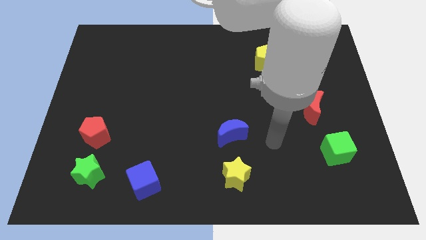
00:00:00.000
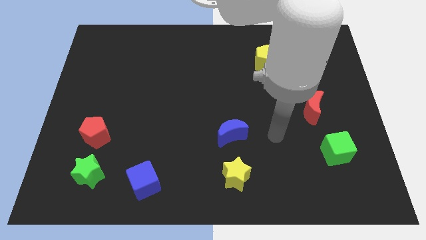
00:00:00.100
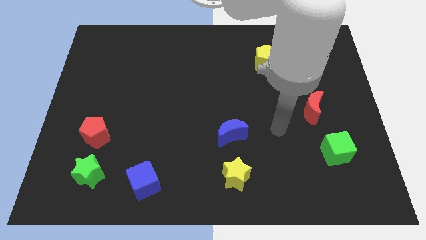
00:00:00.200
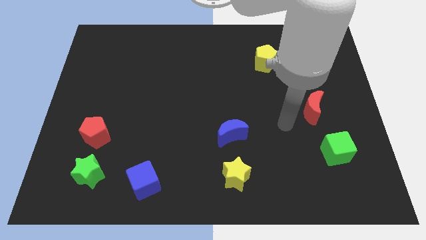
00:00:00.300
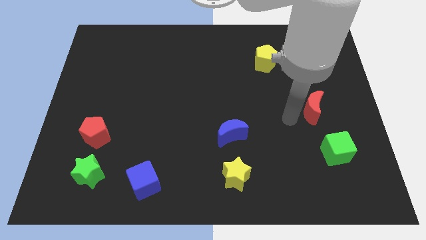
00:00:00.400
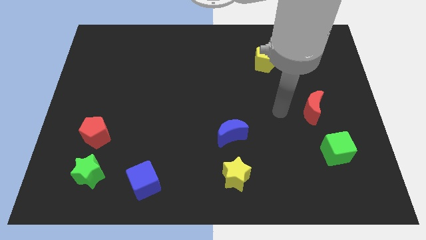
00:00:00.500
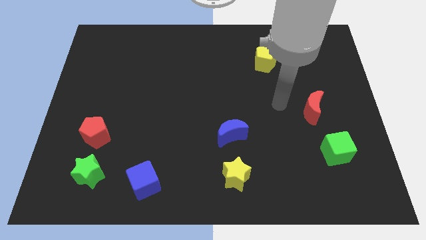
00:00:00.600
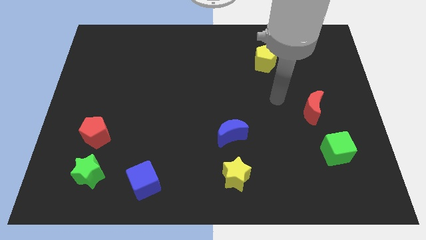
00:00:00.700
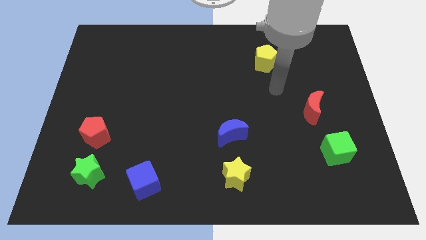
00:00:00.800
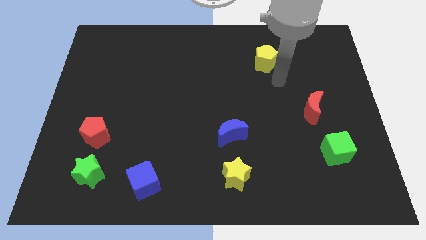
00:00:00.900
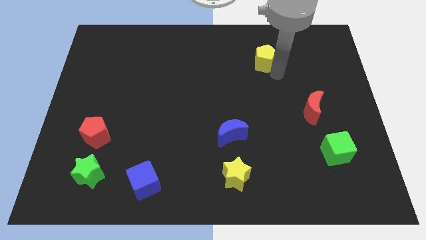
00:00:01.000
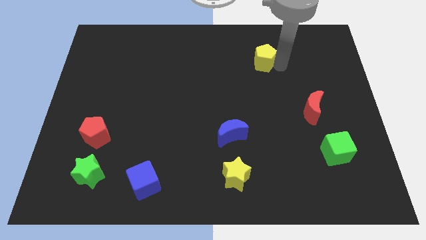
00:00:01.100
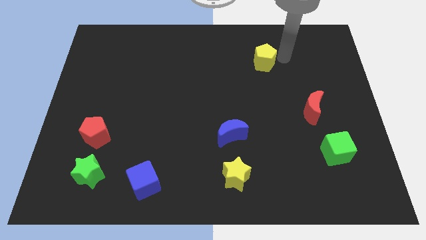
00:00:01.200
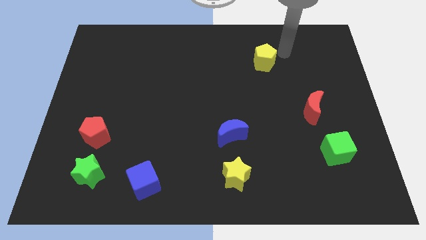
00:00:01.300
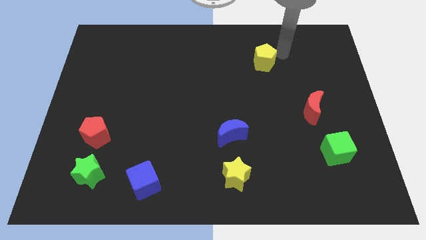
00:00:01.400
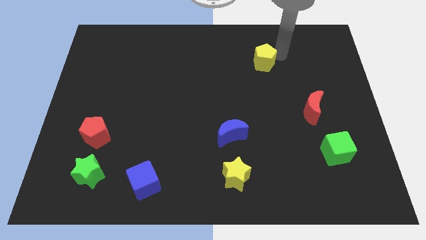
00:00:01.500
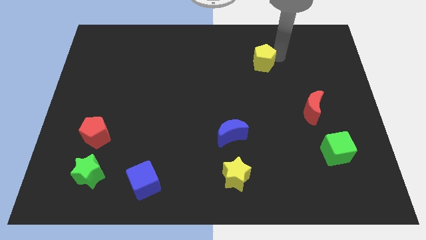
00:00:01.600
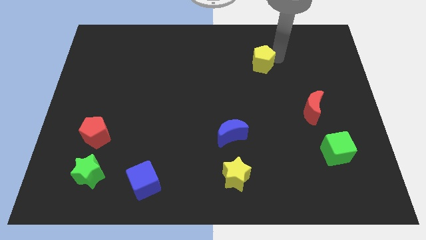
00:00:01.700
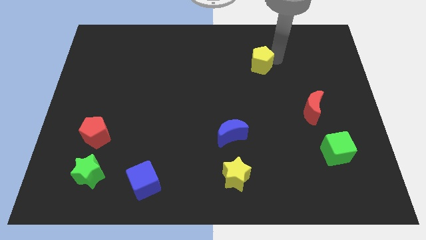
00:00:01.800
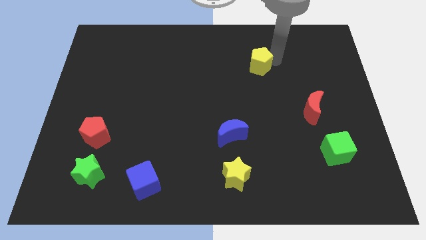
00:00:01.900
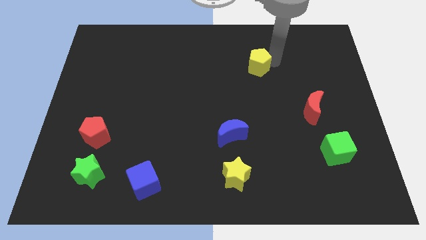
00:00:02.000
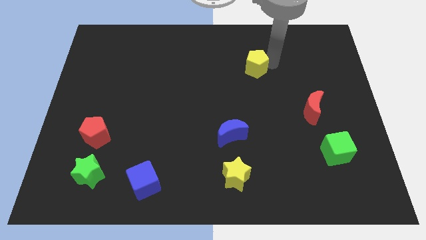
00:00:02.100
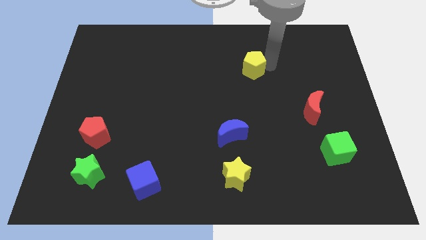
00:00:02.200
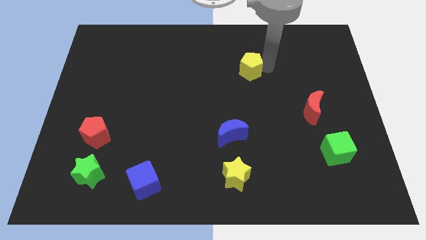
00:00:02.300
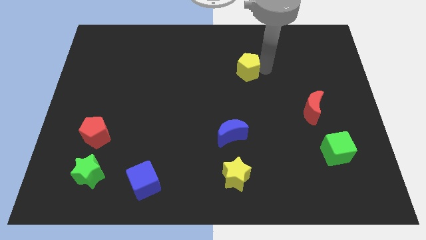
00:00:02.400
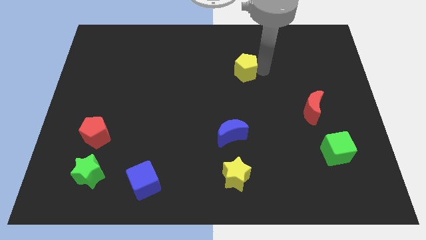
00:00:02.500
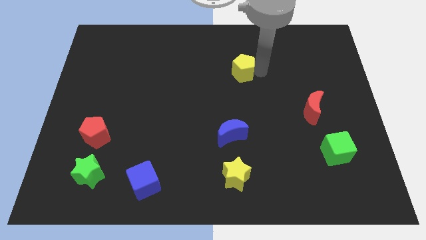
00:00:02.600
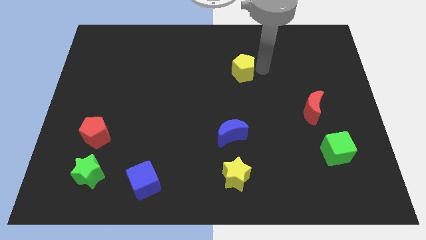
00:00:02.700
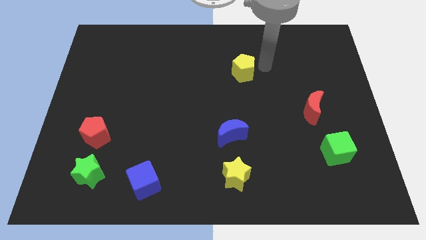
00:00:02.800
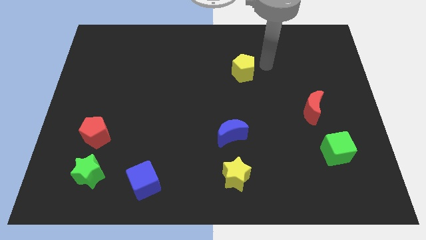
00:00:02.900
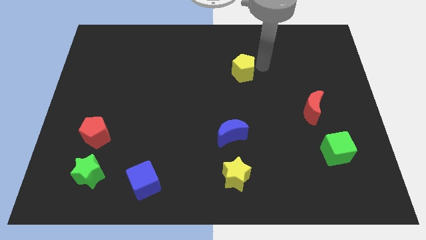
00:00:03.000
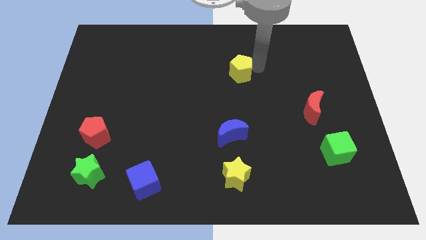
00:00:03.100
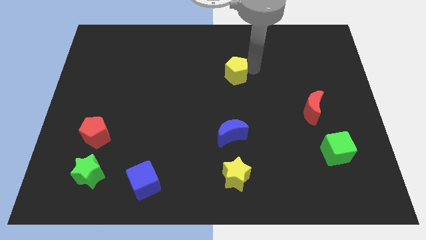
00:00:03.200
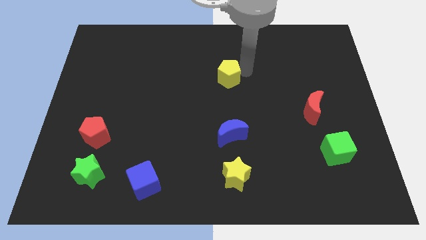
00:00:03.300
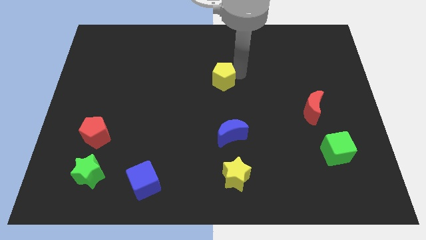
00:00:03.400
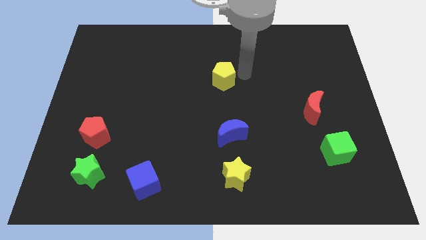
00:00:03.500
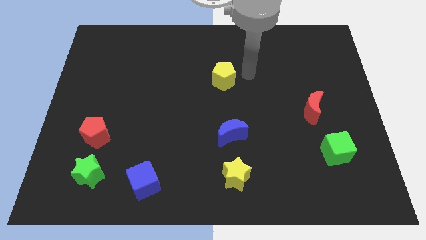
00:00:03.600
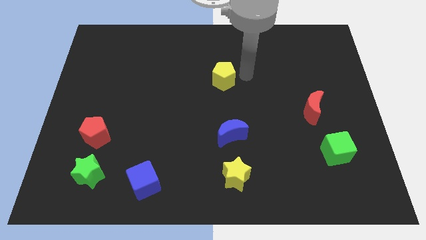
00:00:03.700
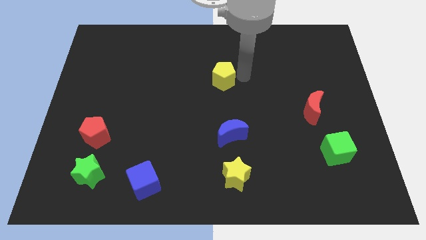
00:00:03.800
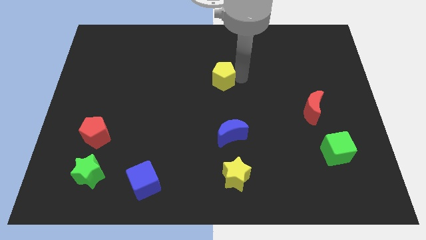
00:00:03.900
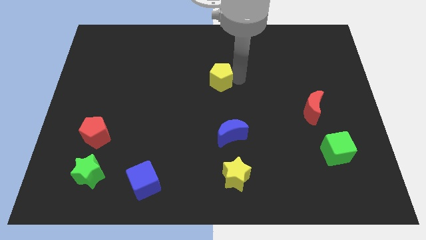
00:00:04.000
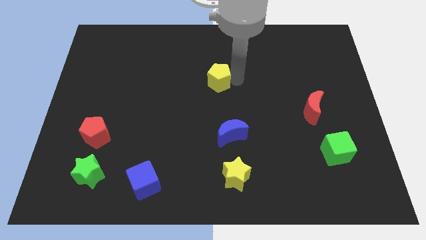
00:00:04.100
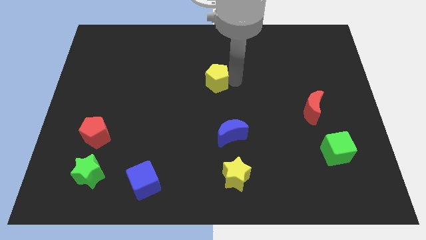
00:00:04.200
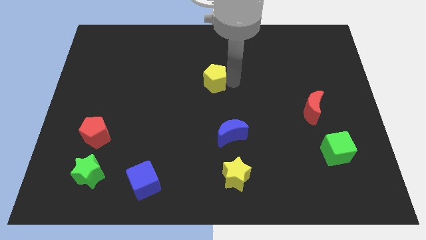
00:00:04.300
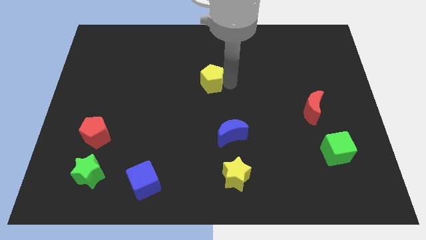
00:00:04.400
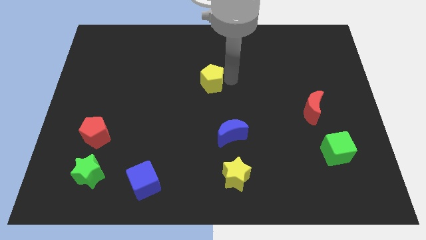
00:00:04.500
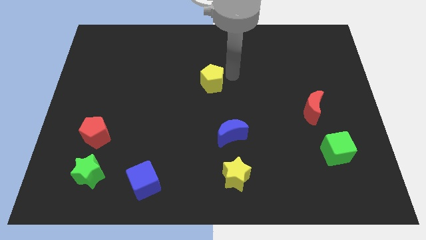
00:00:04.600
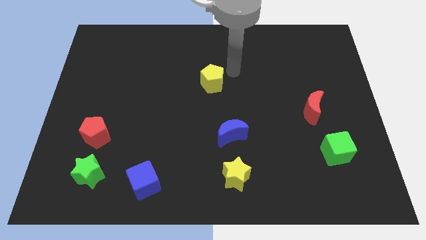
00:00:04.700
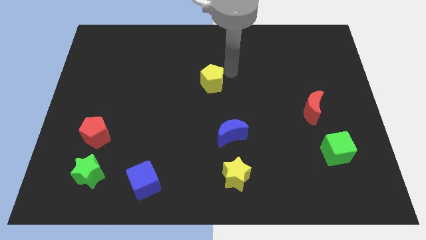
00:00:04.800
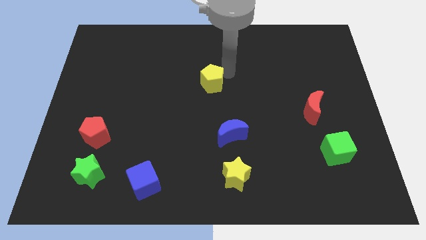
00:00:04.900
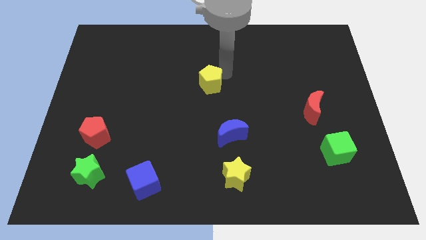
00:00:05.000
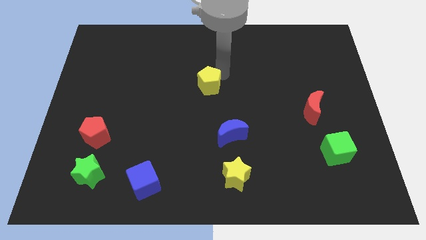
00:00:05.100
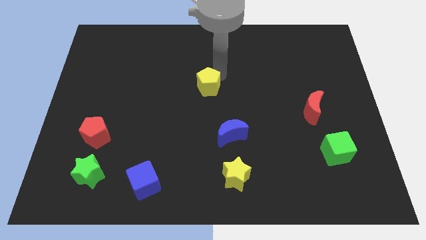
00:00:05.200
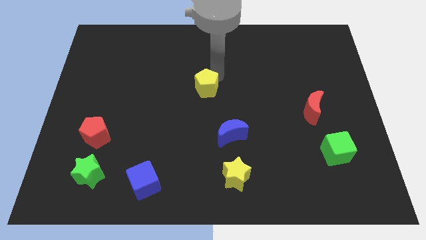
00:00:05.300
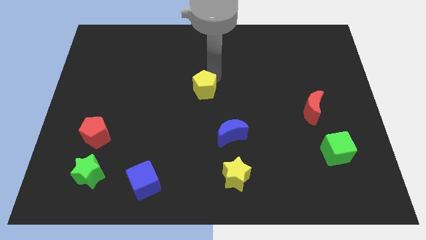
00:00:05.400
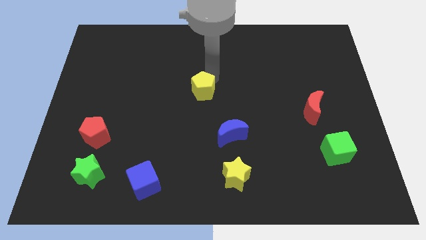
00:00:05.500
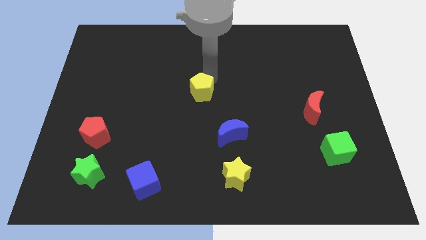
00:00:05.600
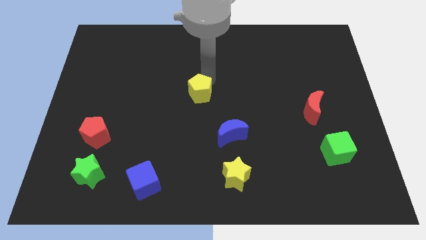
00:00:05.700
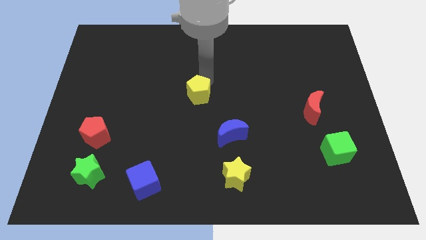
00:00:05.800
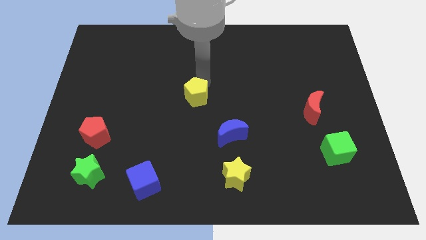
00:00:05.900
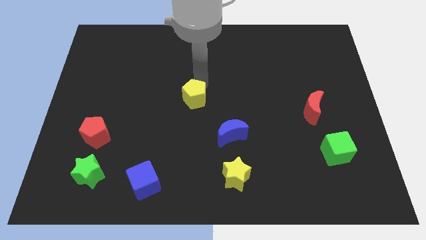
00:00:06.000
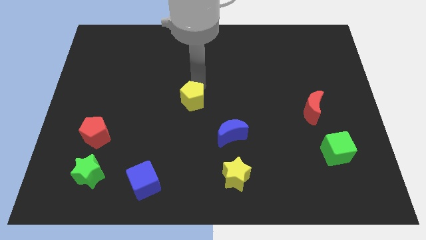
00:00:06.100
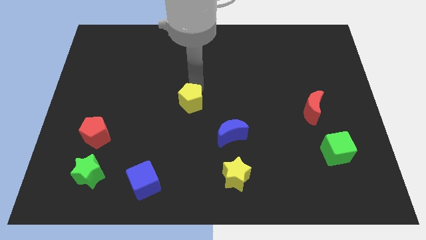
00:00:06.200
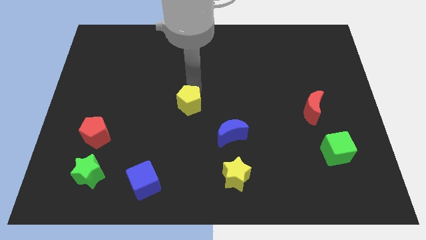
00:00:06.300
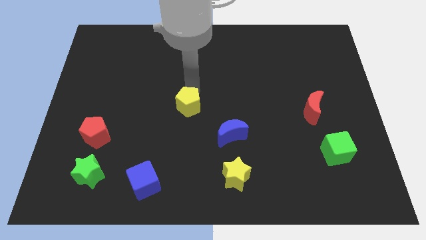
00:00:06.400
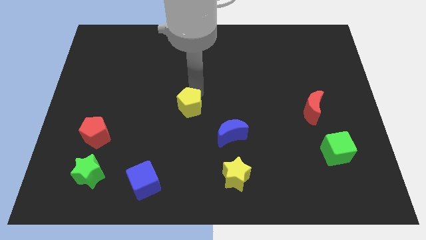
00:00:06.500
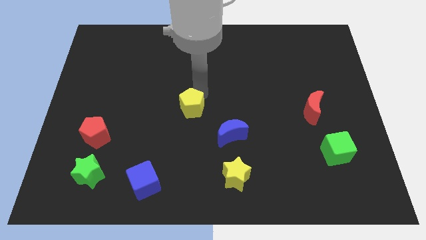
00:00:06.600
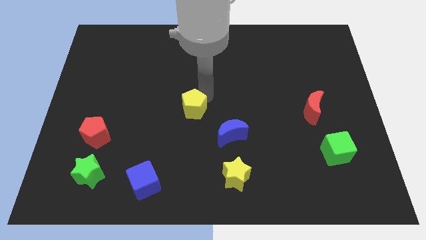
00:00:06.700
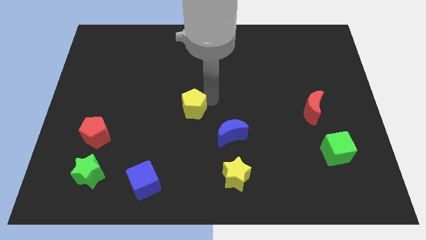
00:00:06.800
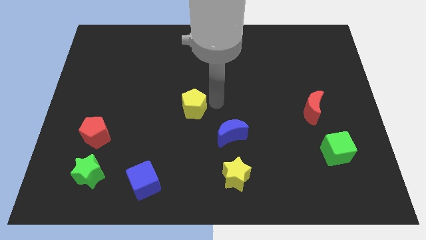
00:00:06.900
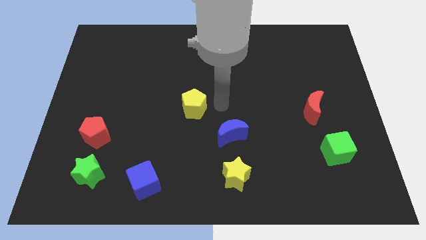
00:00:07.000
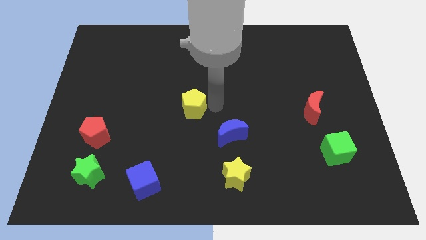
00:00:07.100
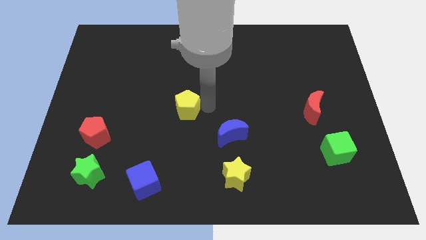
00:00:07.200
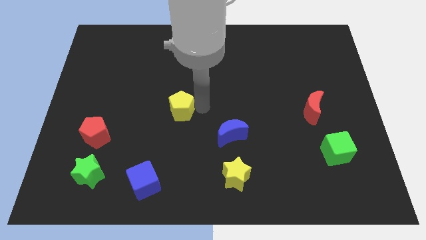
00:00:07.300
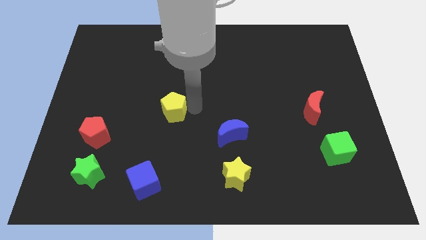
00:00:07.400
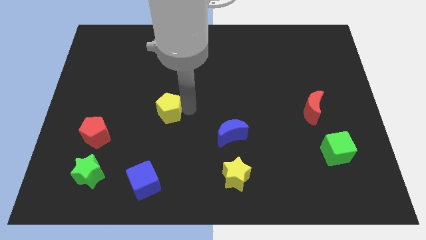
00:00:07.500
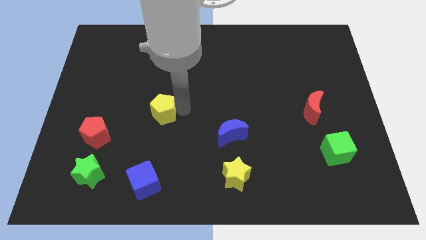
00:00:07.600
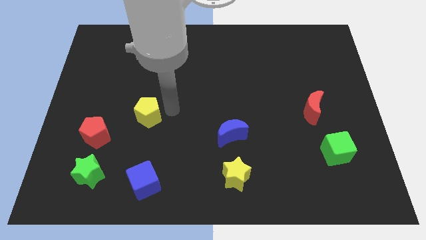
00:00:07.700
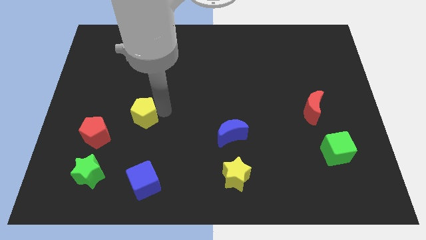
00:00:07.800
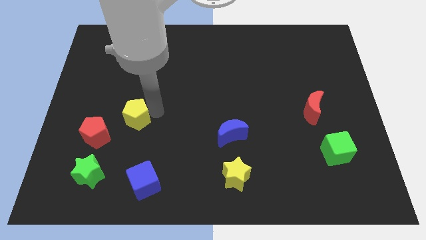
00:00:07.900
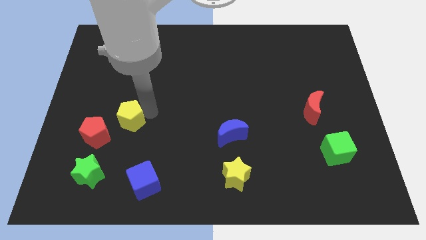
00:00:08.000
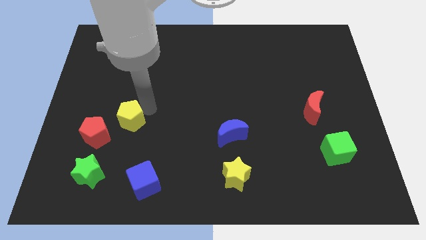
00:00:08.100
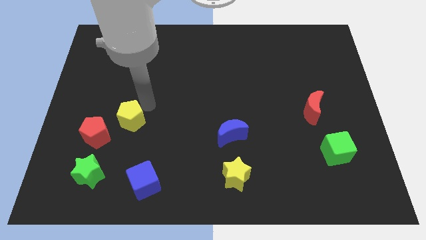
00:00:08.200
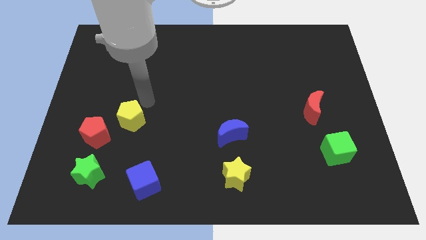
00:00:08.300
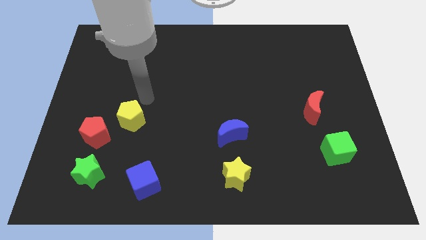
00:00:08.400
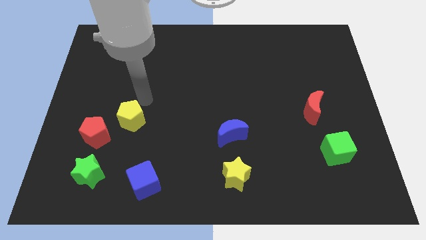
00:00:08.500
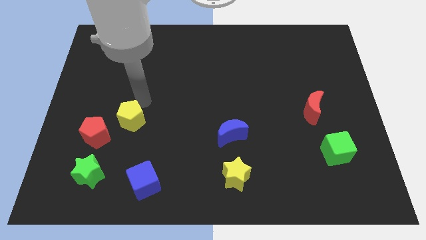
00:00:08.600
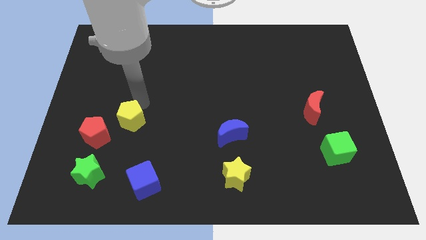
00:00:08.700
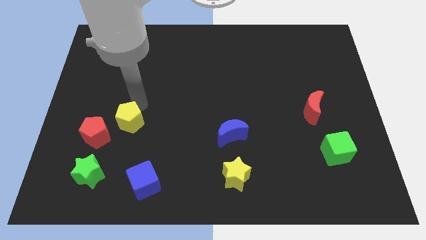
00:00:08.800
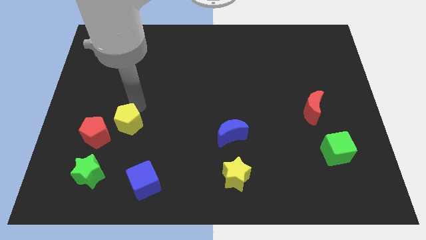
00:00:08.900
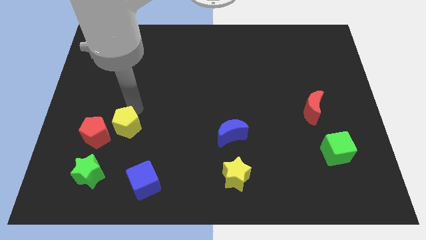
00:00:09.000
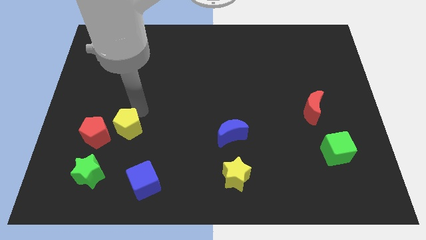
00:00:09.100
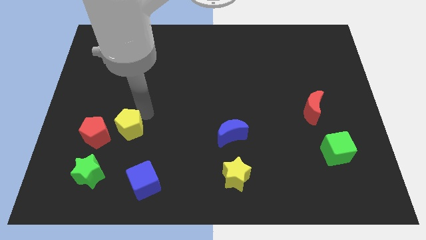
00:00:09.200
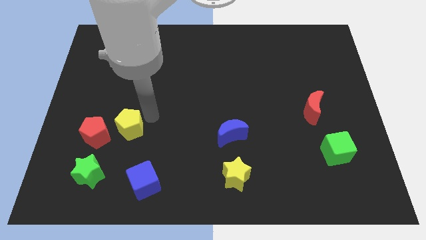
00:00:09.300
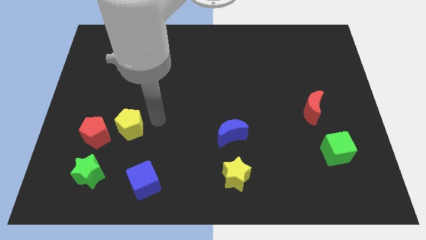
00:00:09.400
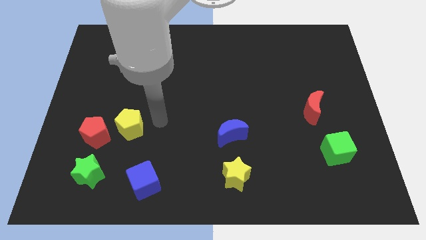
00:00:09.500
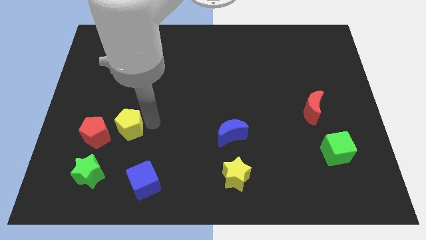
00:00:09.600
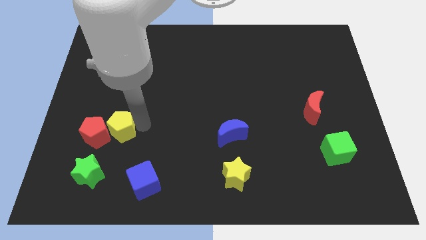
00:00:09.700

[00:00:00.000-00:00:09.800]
move the yellow pentagon to the red pentagon
